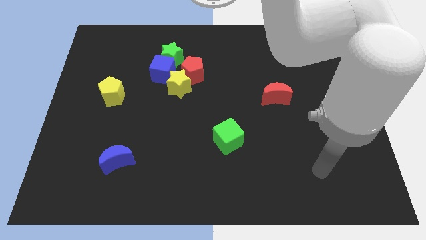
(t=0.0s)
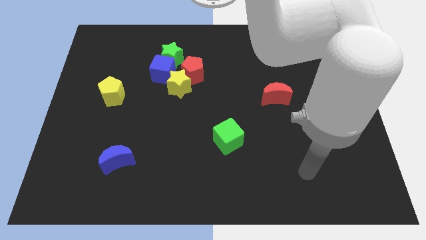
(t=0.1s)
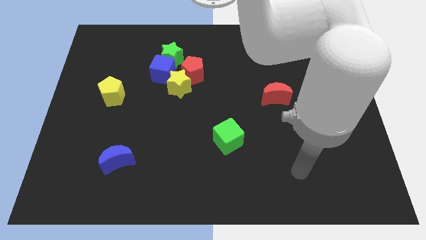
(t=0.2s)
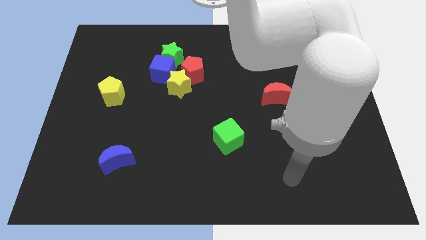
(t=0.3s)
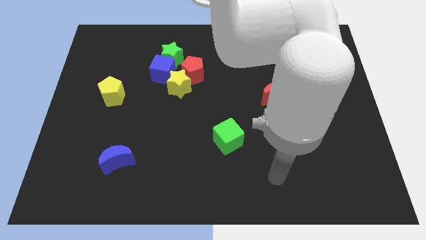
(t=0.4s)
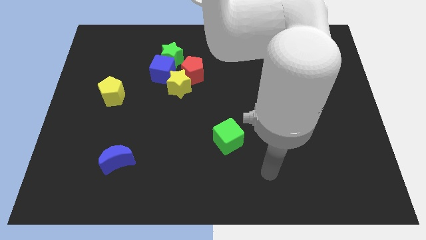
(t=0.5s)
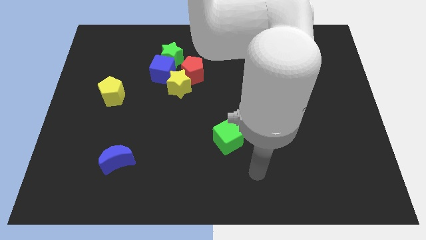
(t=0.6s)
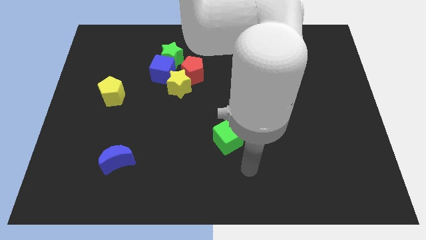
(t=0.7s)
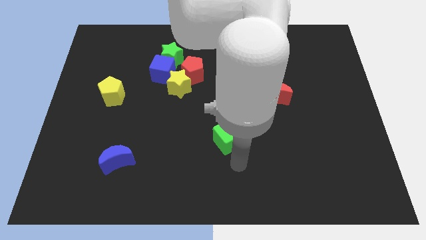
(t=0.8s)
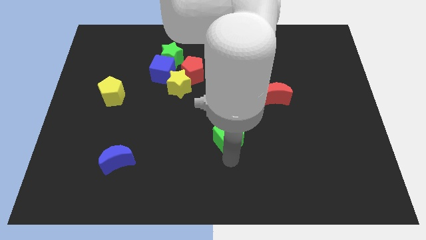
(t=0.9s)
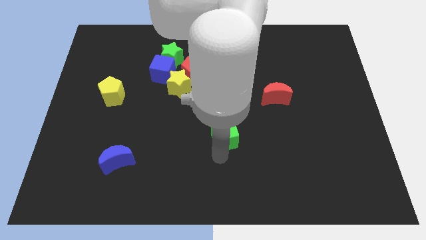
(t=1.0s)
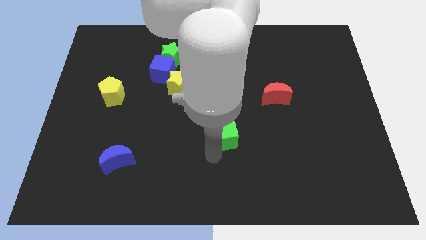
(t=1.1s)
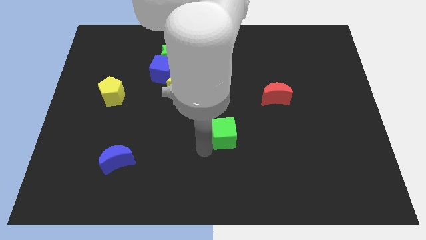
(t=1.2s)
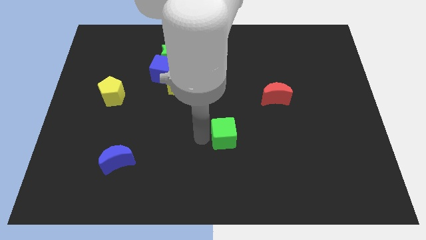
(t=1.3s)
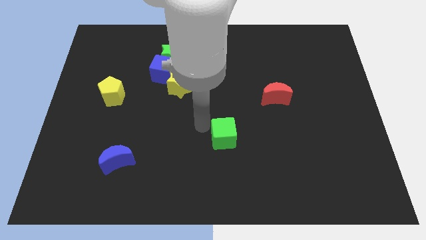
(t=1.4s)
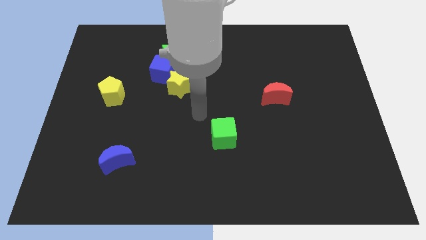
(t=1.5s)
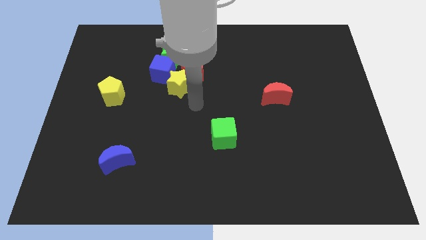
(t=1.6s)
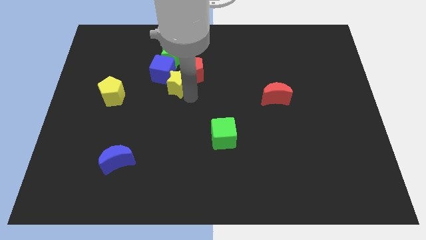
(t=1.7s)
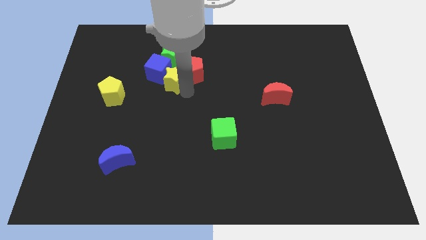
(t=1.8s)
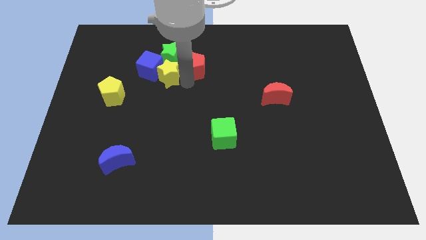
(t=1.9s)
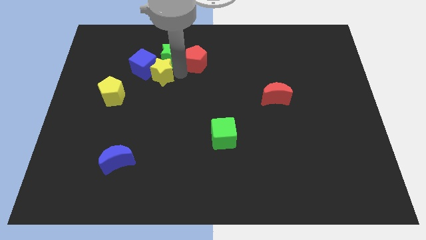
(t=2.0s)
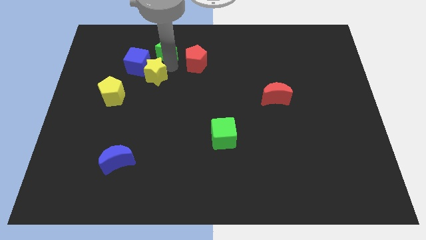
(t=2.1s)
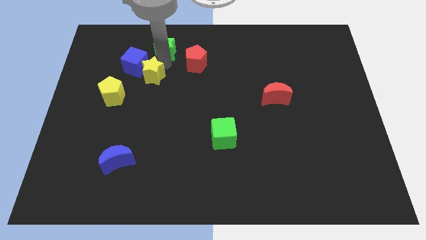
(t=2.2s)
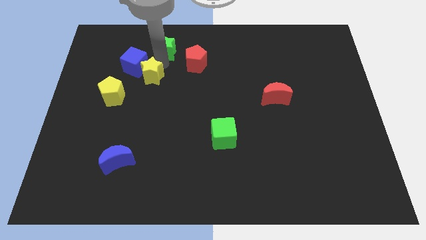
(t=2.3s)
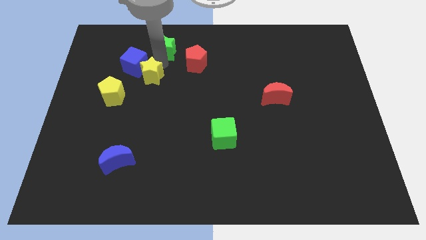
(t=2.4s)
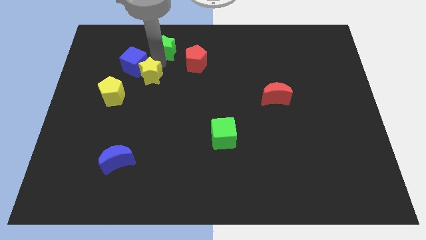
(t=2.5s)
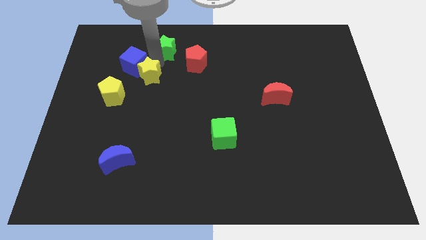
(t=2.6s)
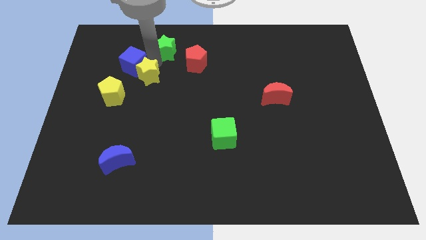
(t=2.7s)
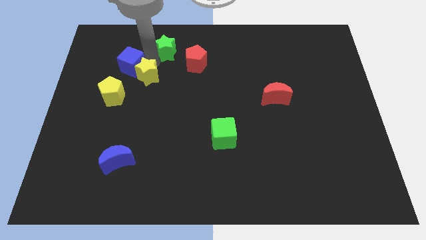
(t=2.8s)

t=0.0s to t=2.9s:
move the blue cube away from the green star, yellow star, and red pentagon

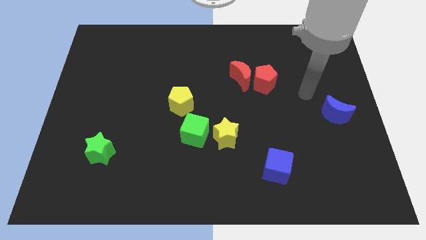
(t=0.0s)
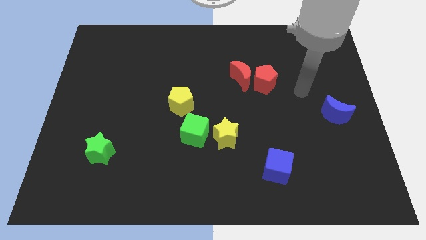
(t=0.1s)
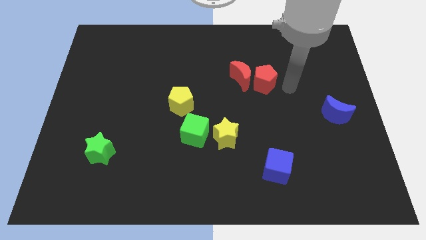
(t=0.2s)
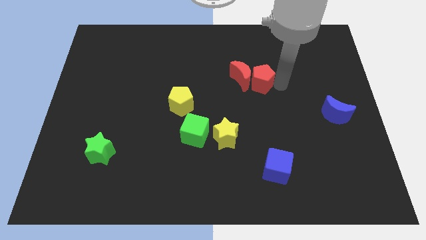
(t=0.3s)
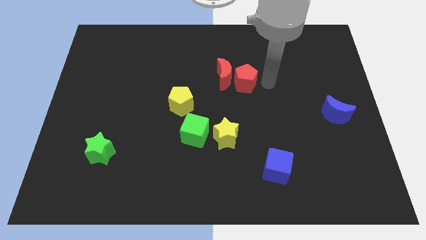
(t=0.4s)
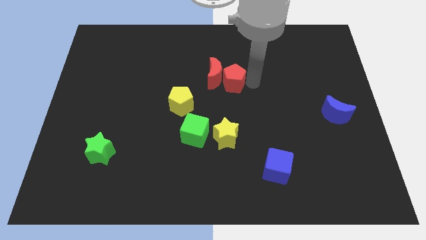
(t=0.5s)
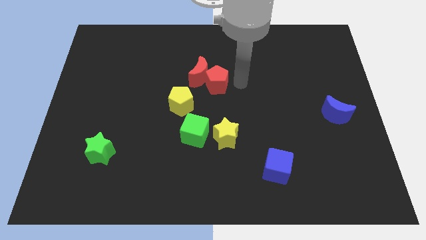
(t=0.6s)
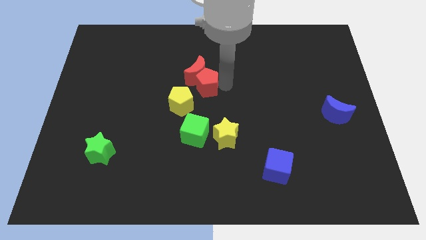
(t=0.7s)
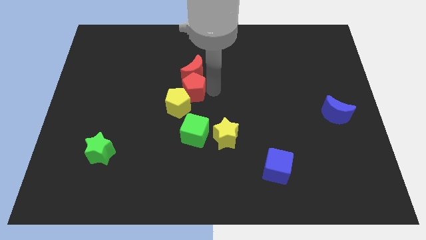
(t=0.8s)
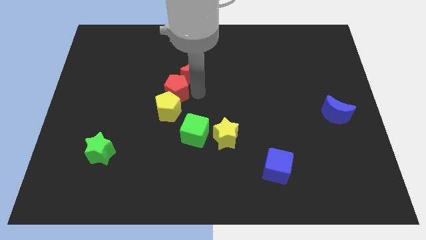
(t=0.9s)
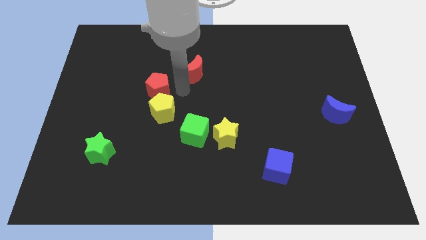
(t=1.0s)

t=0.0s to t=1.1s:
move the red moon away from the red pentagon

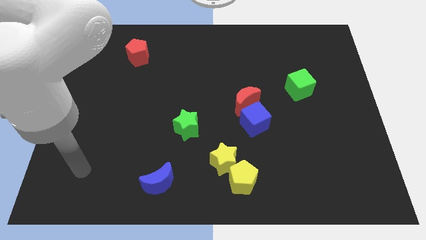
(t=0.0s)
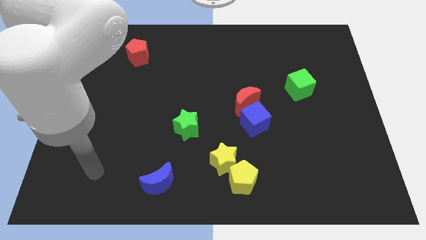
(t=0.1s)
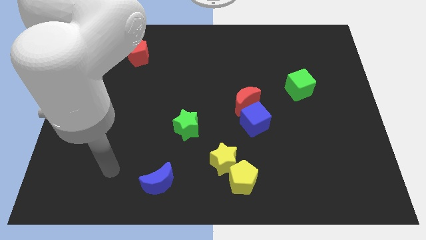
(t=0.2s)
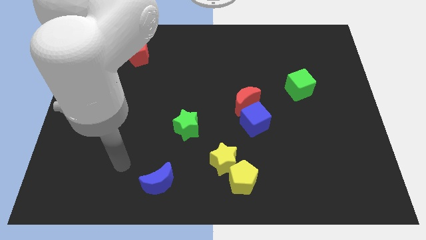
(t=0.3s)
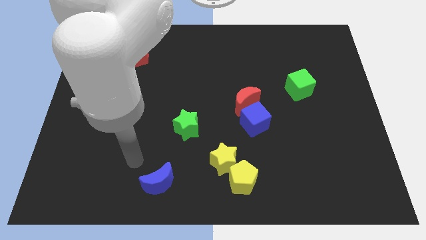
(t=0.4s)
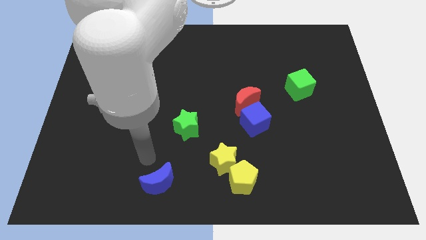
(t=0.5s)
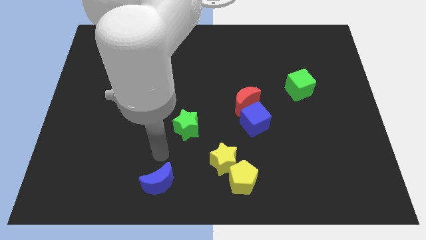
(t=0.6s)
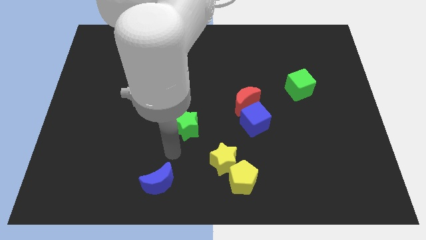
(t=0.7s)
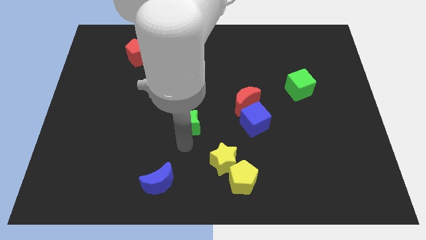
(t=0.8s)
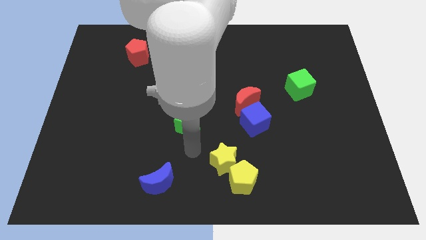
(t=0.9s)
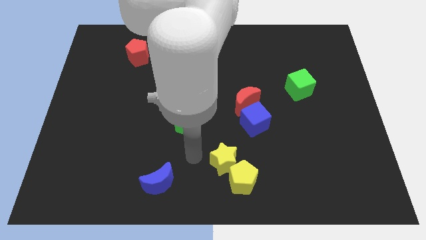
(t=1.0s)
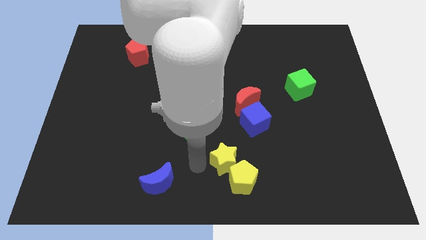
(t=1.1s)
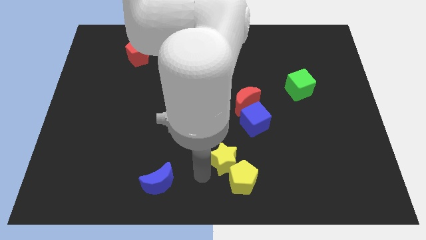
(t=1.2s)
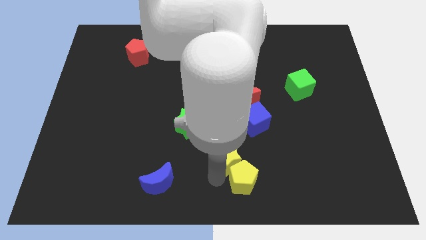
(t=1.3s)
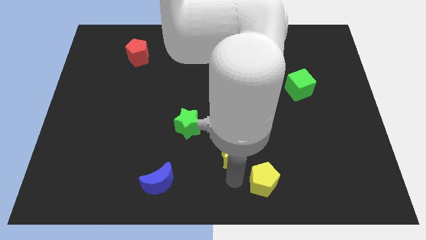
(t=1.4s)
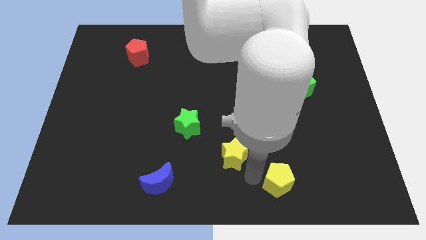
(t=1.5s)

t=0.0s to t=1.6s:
move the yellow star away from the yellow pentagon

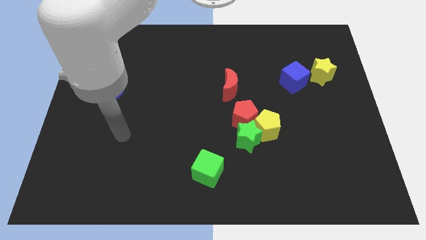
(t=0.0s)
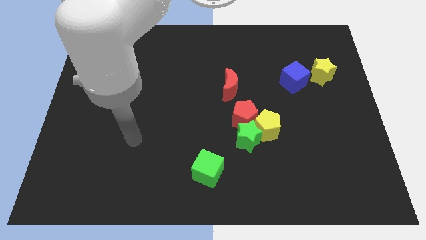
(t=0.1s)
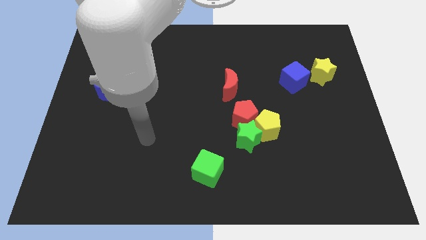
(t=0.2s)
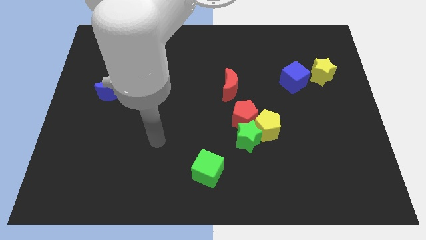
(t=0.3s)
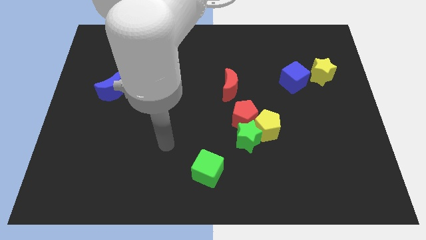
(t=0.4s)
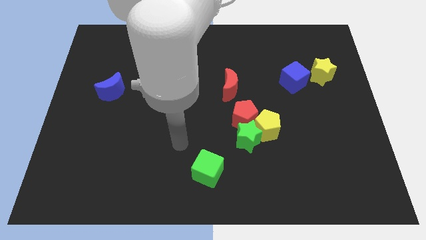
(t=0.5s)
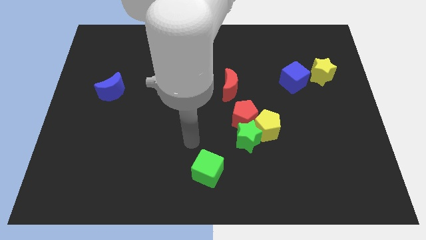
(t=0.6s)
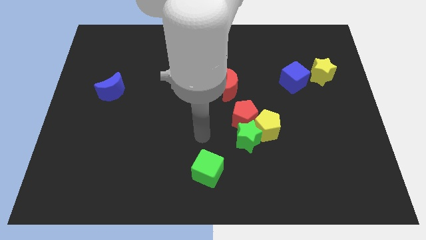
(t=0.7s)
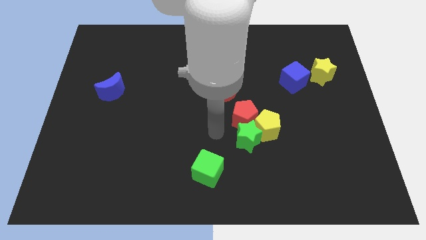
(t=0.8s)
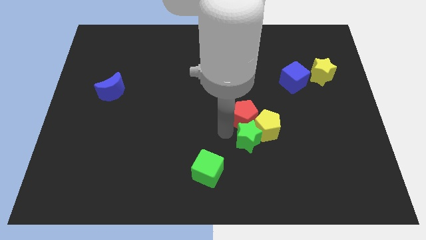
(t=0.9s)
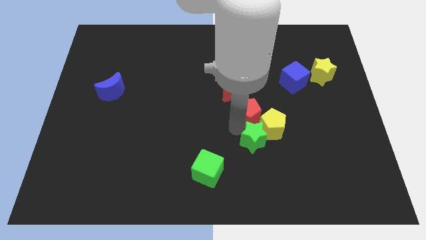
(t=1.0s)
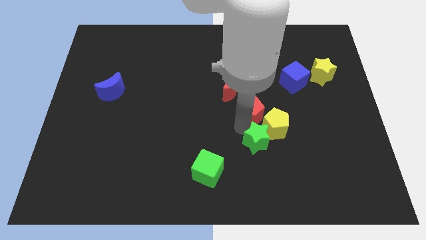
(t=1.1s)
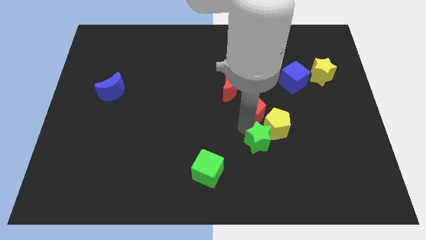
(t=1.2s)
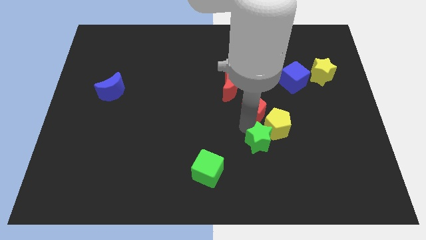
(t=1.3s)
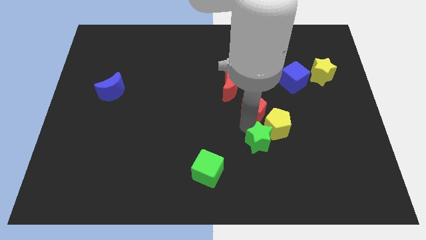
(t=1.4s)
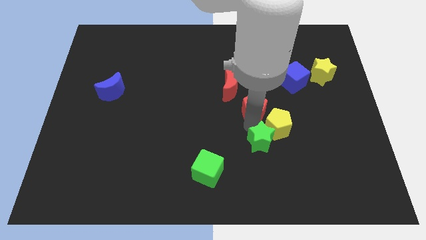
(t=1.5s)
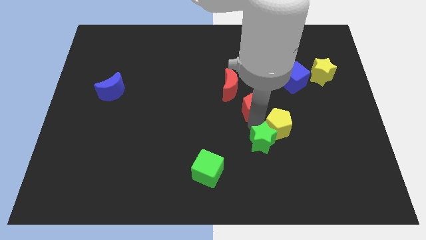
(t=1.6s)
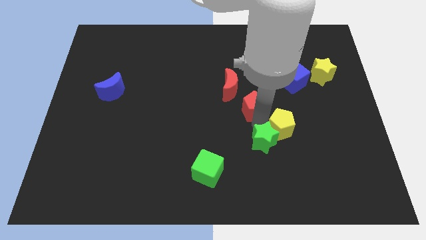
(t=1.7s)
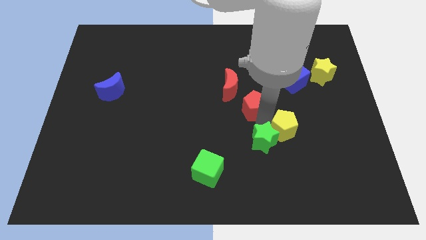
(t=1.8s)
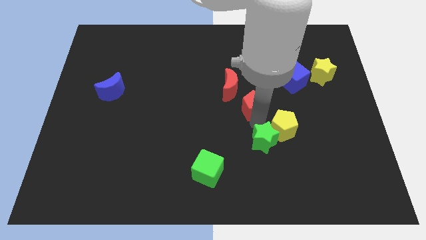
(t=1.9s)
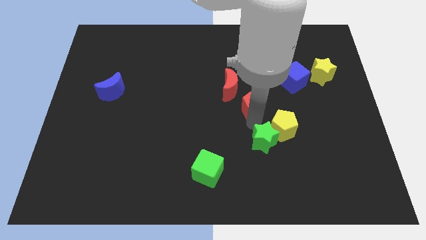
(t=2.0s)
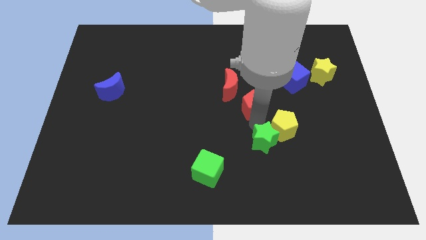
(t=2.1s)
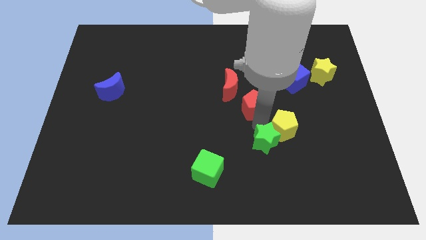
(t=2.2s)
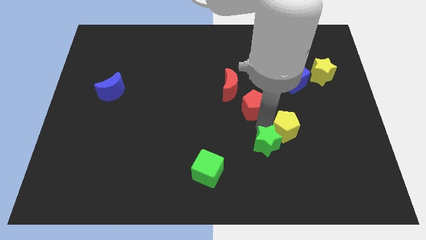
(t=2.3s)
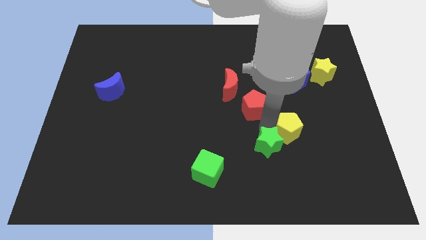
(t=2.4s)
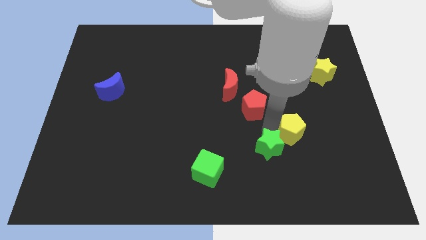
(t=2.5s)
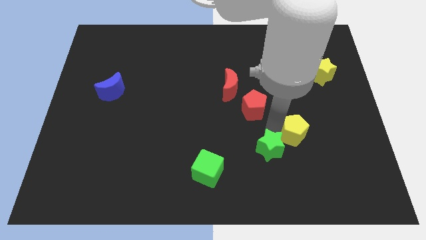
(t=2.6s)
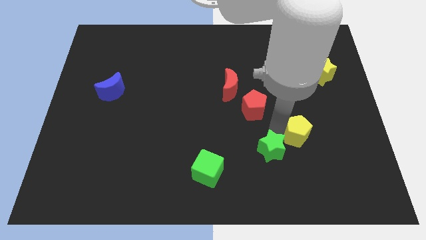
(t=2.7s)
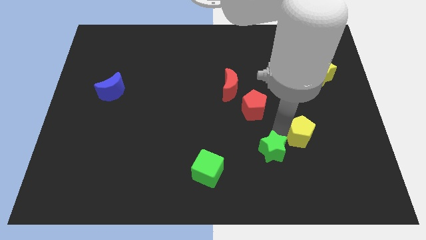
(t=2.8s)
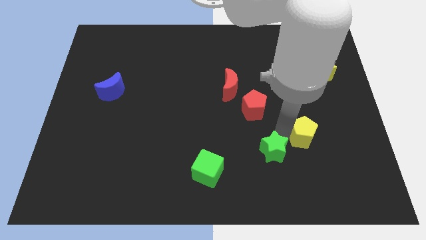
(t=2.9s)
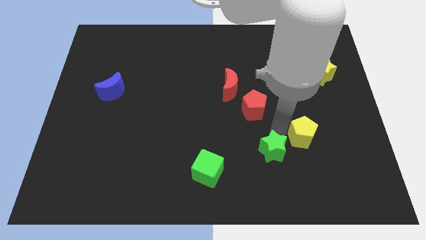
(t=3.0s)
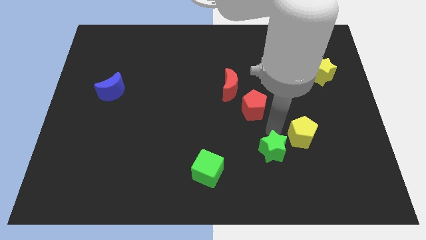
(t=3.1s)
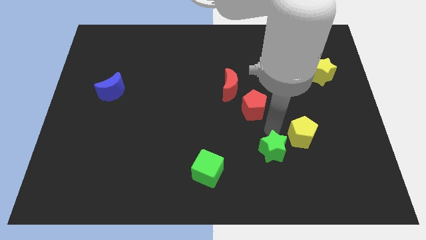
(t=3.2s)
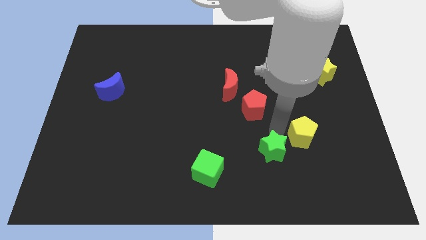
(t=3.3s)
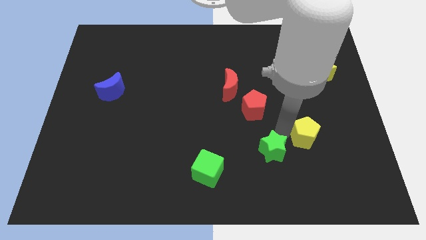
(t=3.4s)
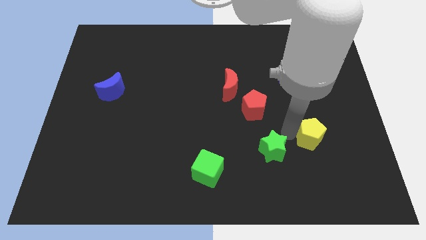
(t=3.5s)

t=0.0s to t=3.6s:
move the yellow pentagon away from the green star and red pentagon

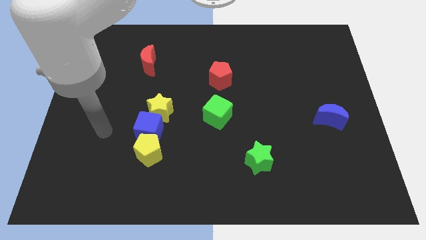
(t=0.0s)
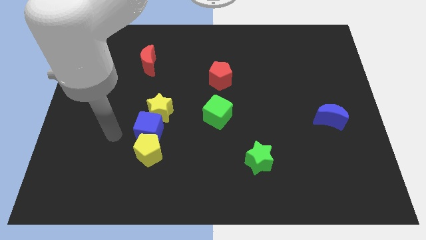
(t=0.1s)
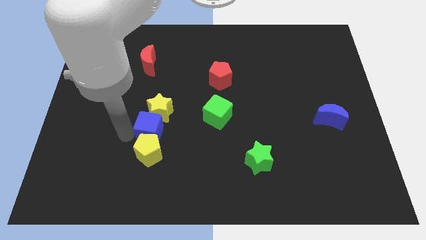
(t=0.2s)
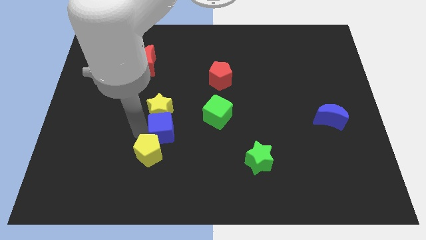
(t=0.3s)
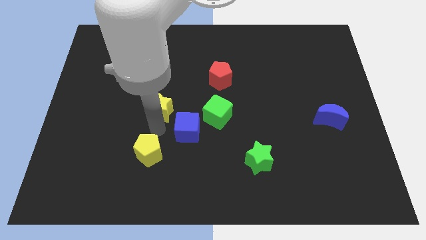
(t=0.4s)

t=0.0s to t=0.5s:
move the yellow pentagon away from the blue cube
